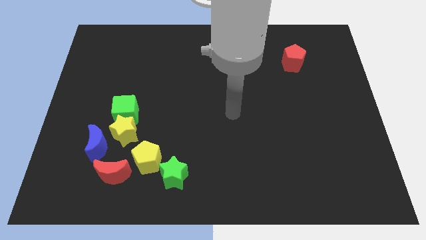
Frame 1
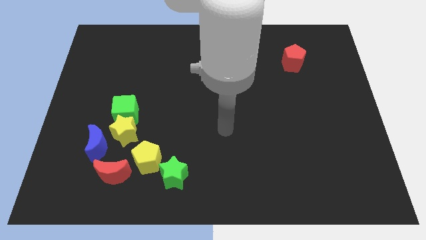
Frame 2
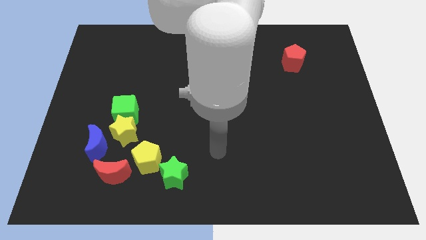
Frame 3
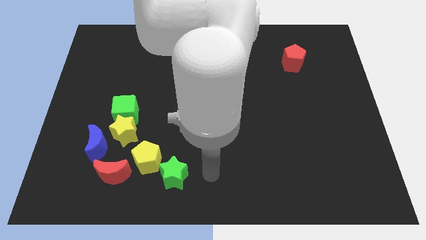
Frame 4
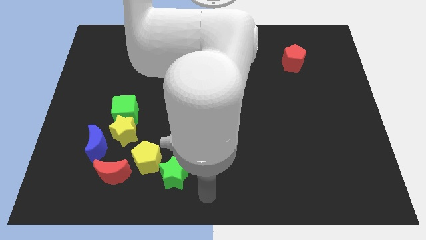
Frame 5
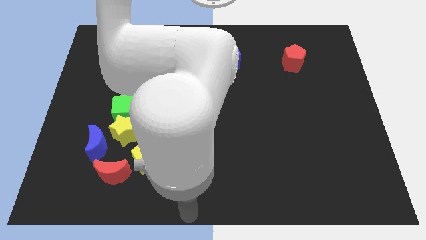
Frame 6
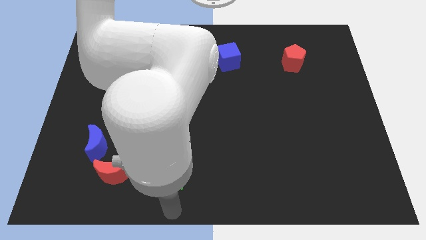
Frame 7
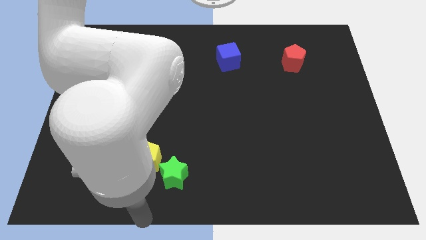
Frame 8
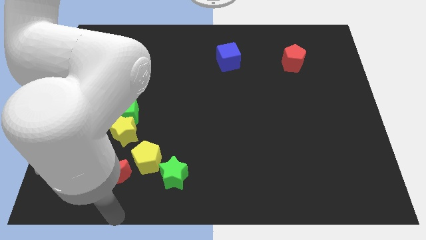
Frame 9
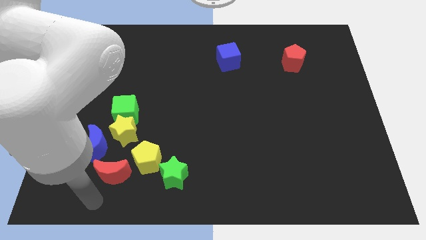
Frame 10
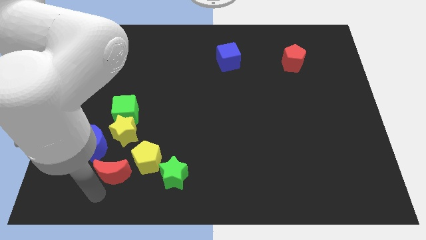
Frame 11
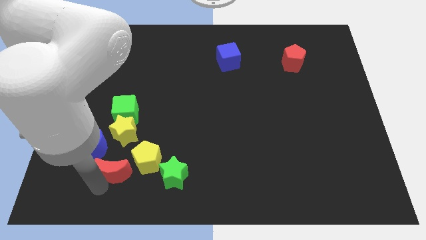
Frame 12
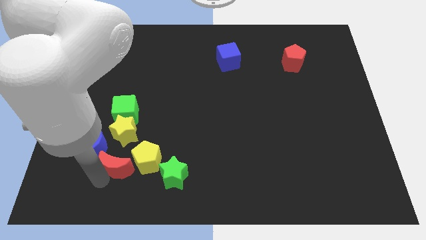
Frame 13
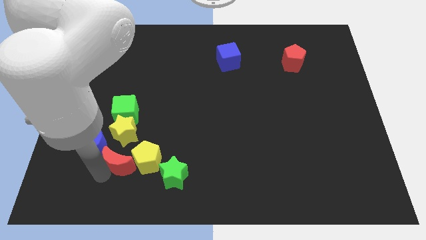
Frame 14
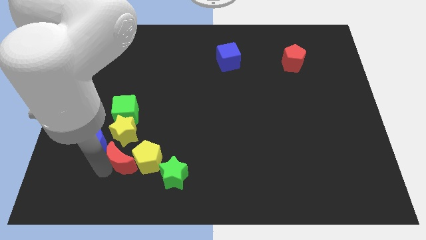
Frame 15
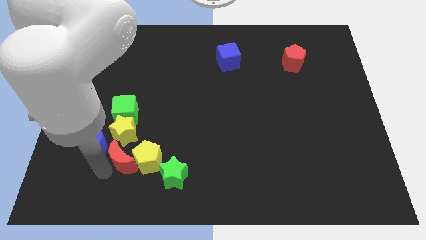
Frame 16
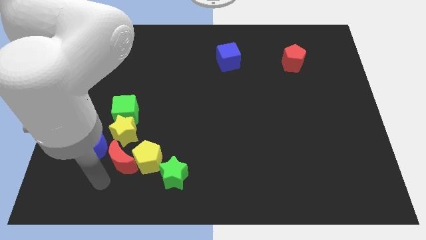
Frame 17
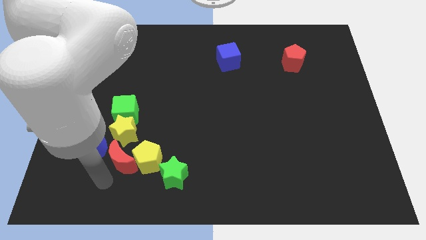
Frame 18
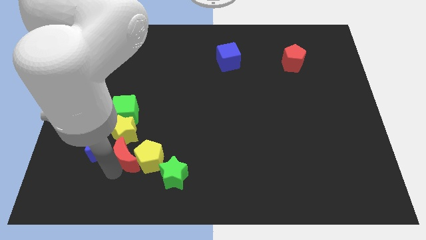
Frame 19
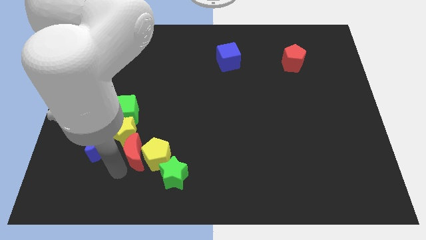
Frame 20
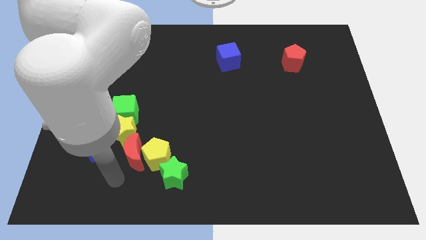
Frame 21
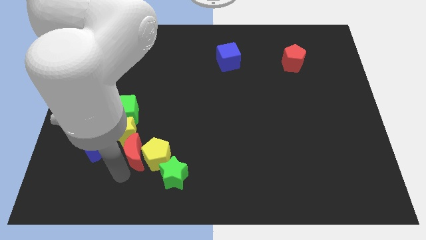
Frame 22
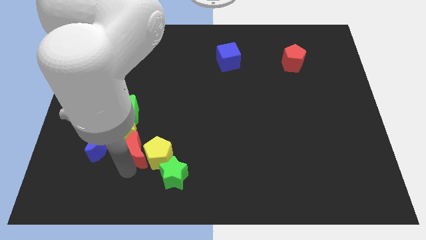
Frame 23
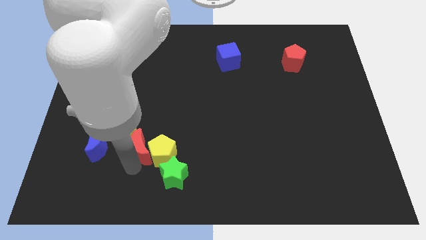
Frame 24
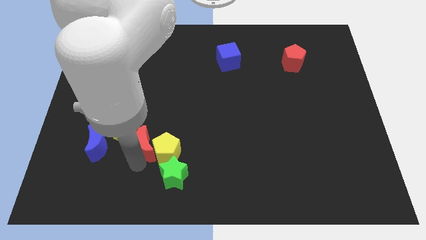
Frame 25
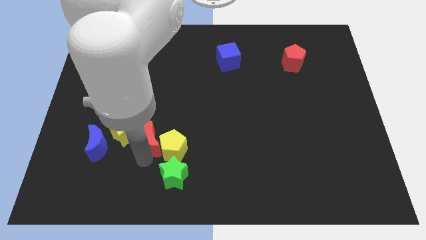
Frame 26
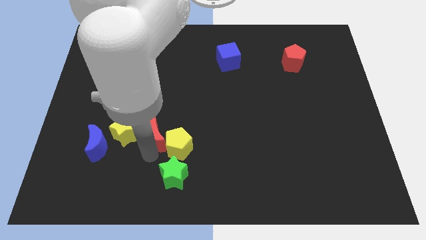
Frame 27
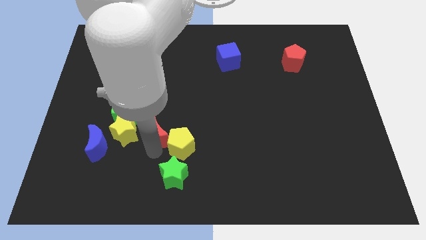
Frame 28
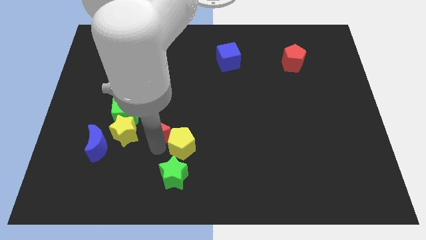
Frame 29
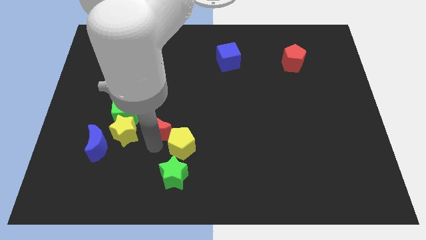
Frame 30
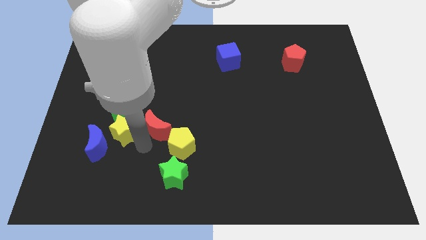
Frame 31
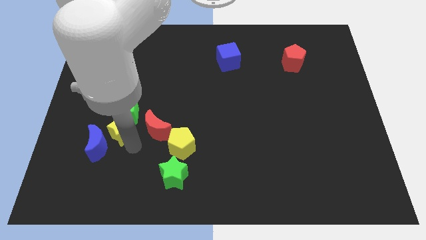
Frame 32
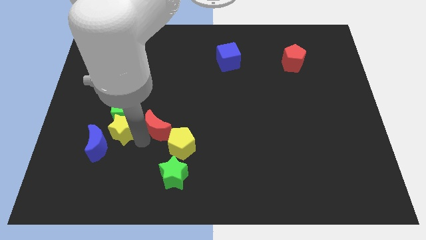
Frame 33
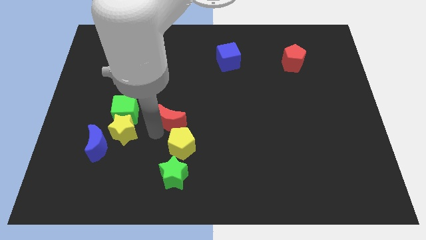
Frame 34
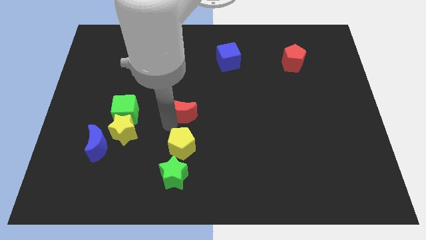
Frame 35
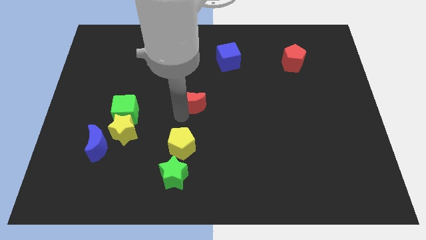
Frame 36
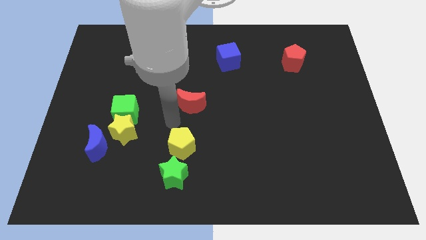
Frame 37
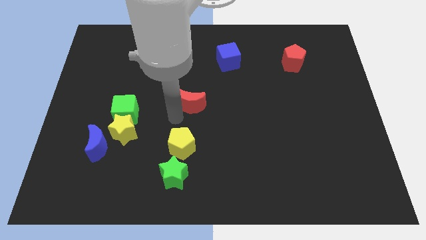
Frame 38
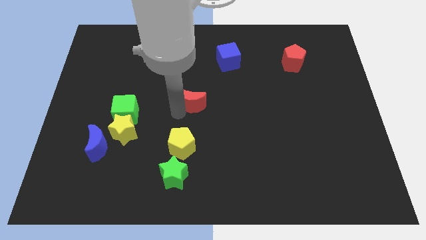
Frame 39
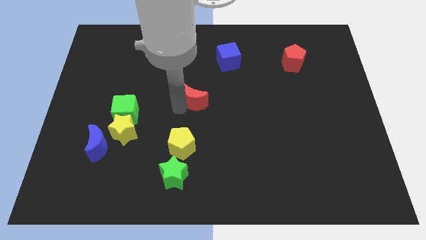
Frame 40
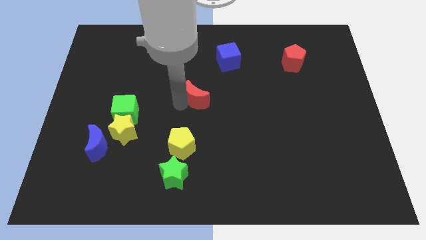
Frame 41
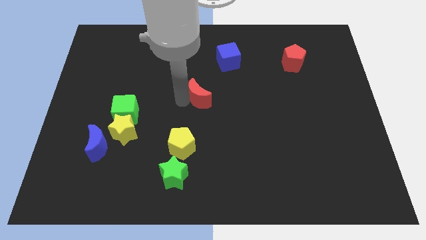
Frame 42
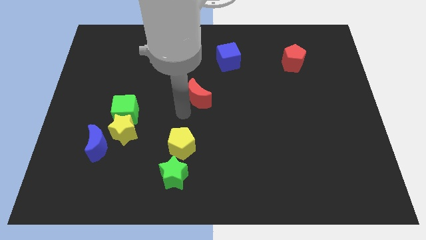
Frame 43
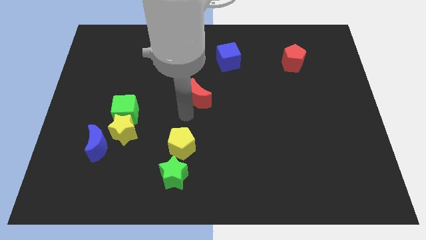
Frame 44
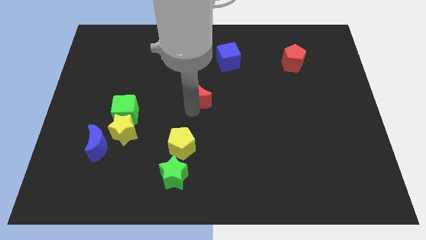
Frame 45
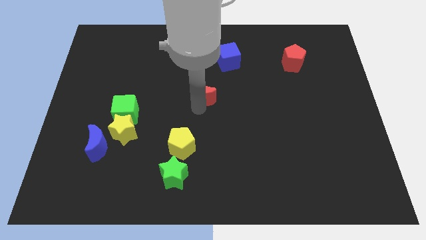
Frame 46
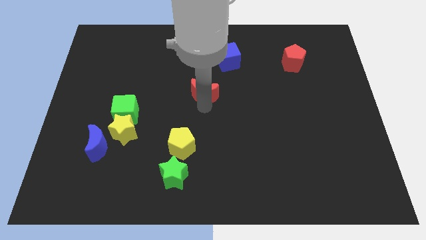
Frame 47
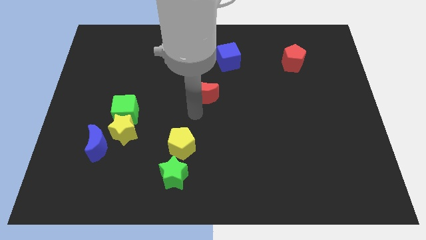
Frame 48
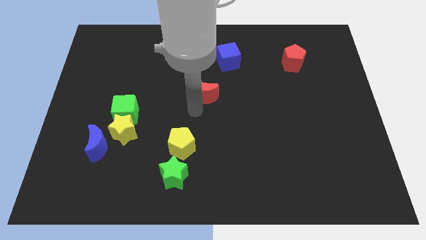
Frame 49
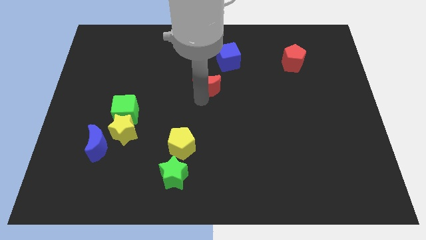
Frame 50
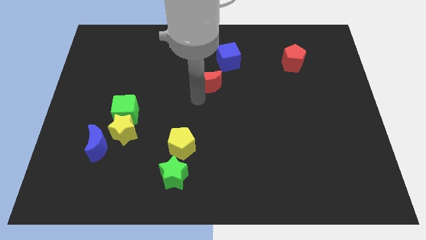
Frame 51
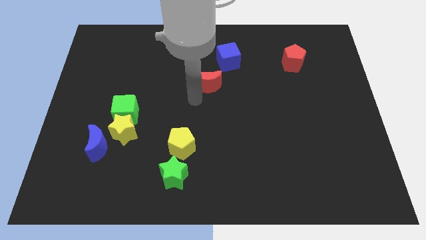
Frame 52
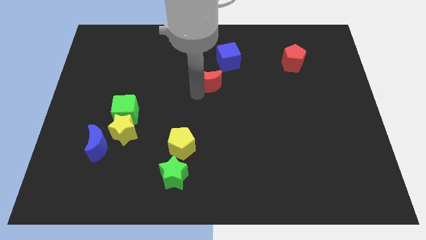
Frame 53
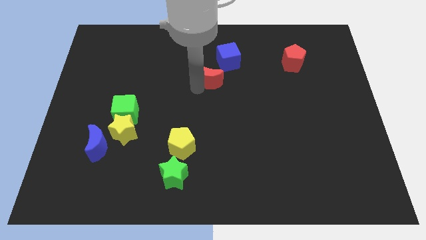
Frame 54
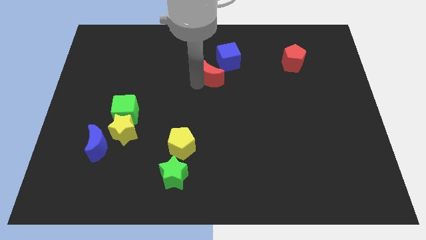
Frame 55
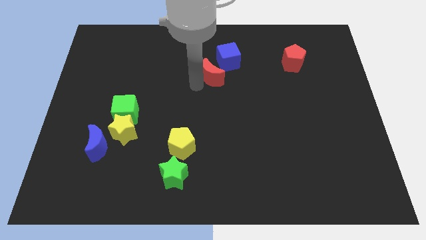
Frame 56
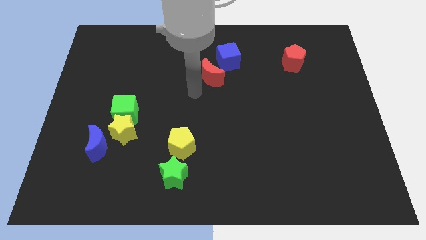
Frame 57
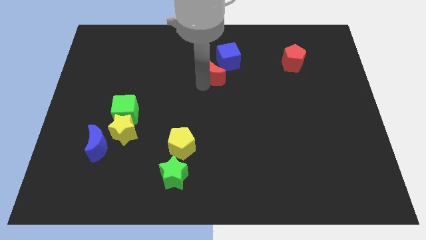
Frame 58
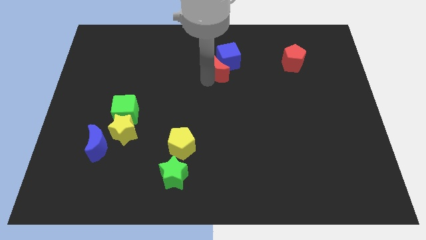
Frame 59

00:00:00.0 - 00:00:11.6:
slide the red moon close to the blue cube

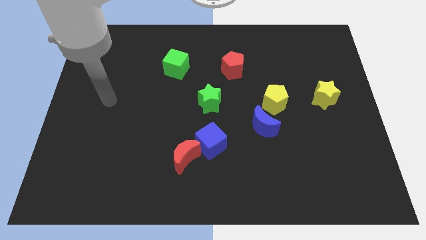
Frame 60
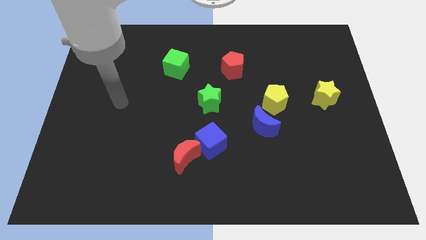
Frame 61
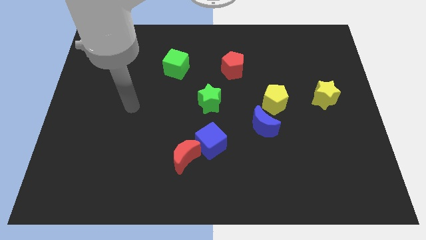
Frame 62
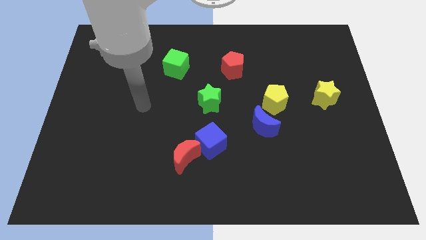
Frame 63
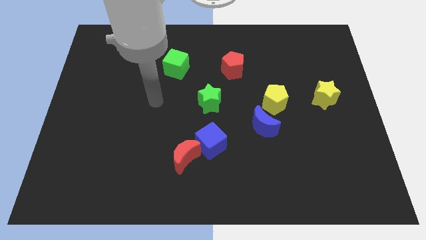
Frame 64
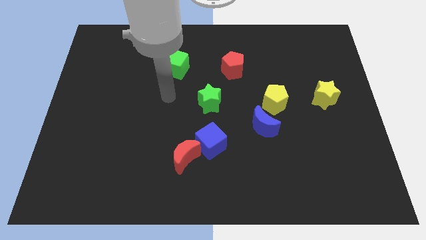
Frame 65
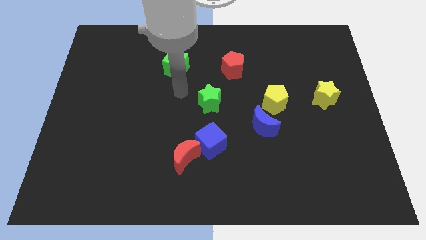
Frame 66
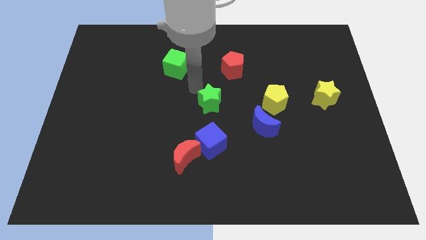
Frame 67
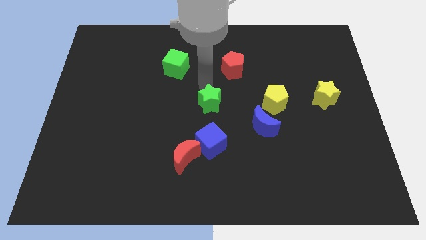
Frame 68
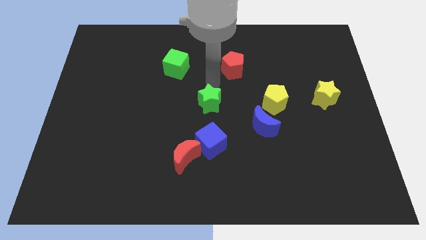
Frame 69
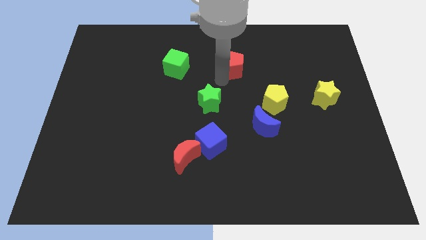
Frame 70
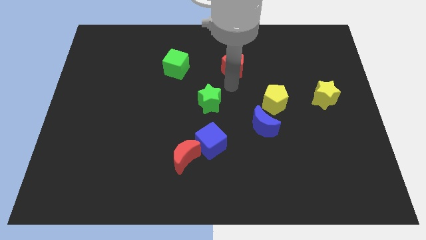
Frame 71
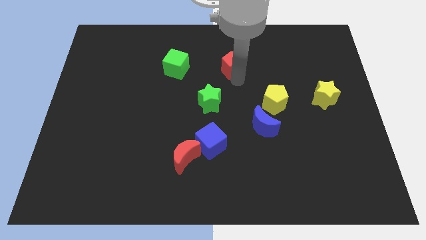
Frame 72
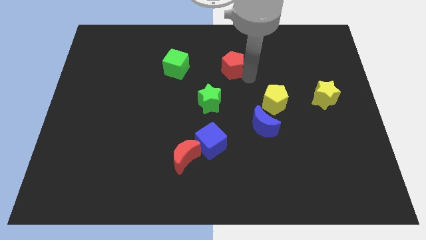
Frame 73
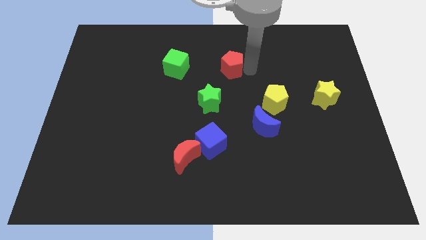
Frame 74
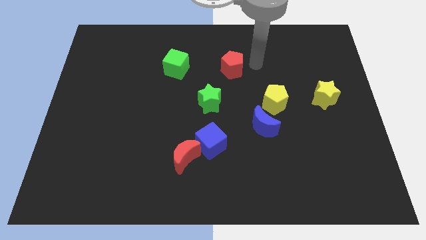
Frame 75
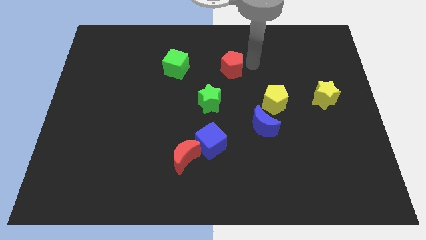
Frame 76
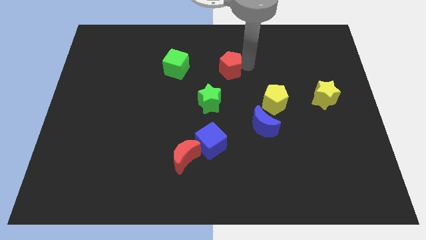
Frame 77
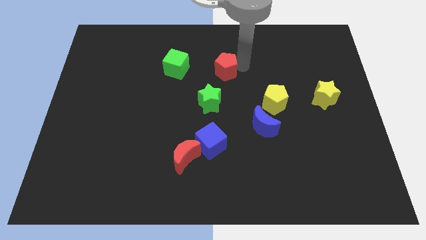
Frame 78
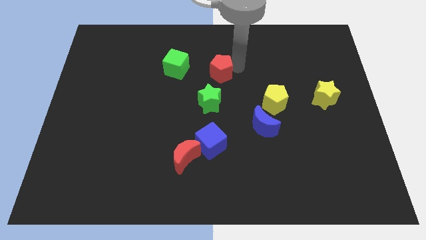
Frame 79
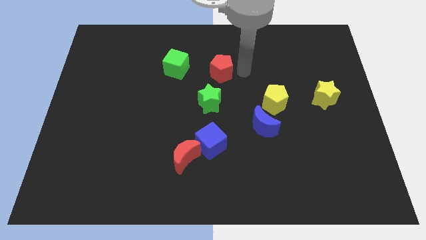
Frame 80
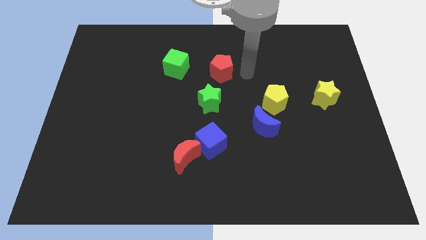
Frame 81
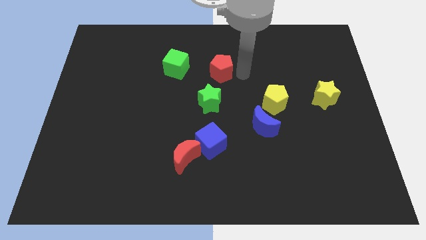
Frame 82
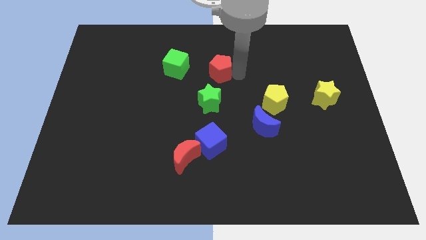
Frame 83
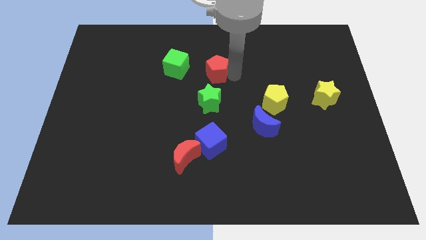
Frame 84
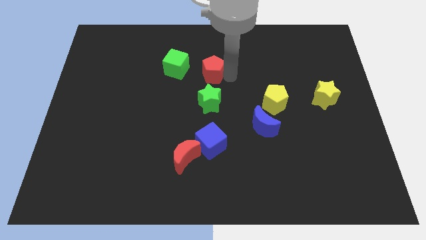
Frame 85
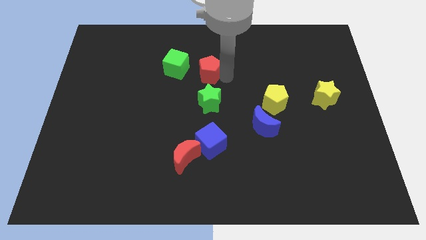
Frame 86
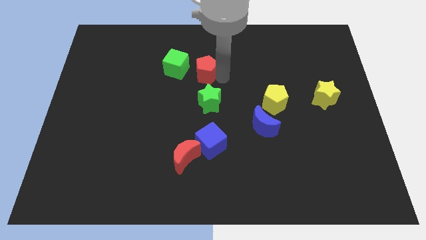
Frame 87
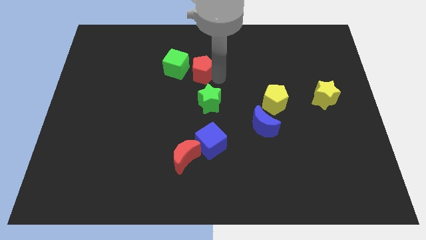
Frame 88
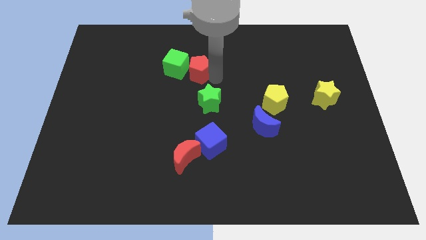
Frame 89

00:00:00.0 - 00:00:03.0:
slide the red pentagon to the green cube
